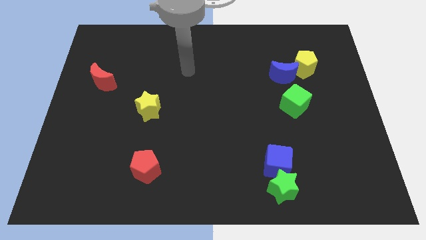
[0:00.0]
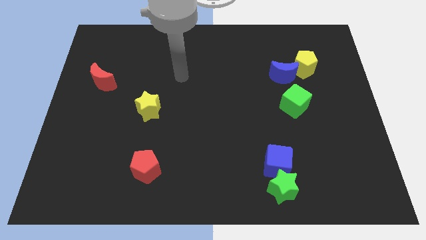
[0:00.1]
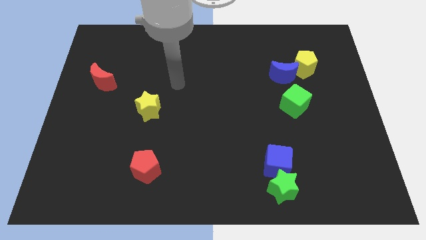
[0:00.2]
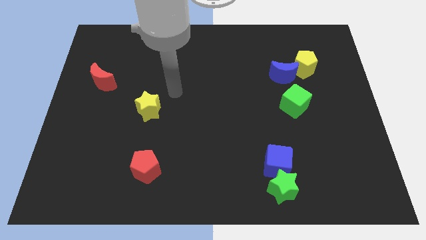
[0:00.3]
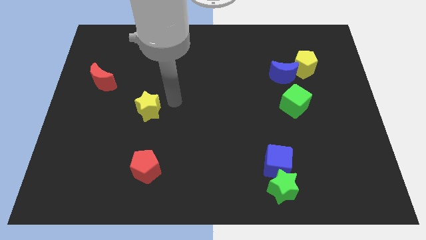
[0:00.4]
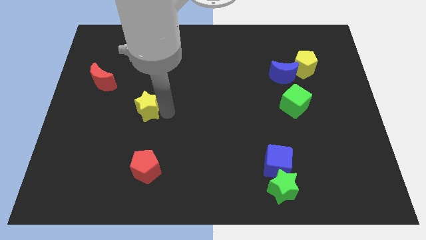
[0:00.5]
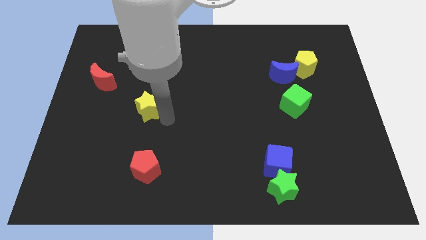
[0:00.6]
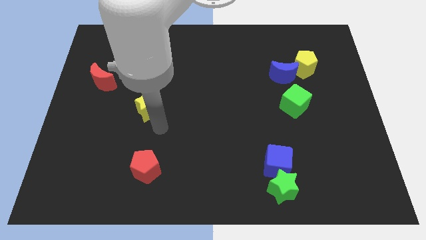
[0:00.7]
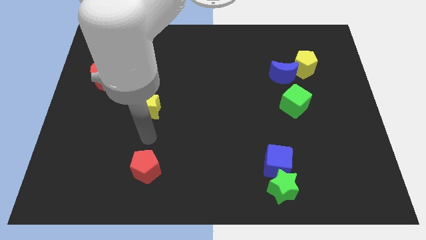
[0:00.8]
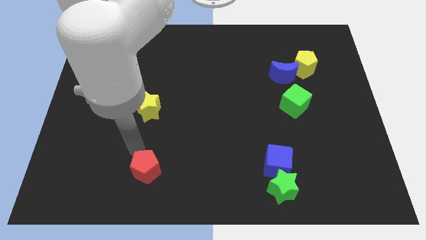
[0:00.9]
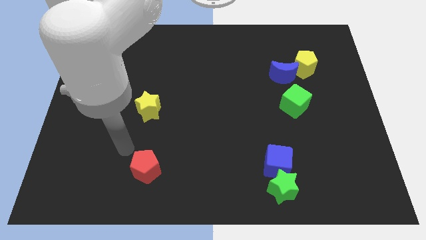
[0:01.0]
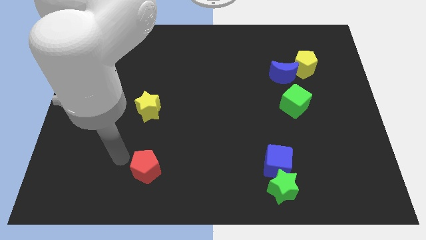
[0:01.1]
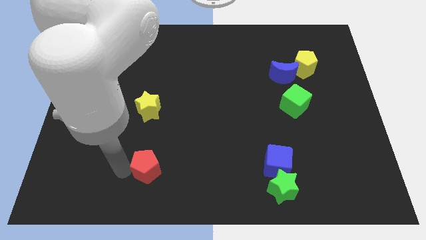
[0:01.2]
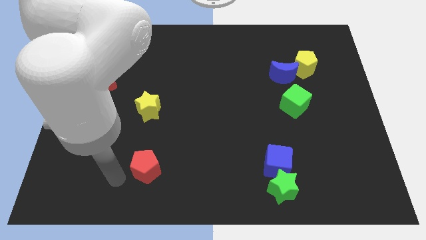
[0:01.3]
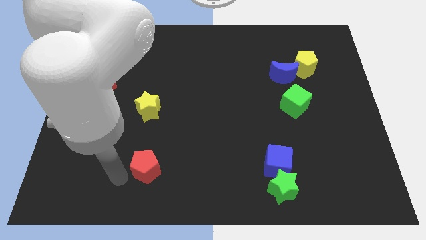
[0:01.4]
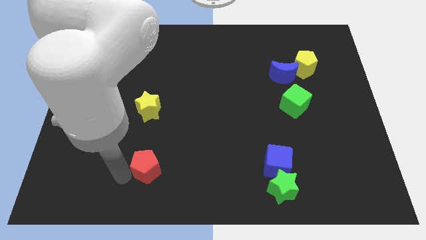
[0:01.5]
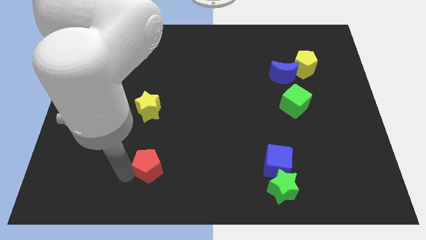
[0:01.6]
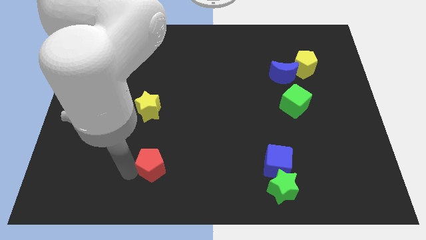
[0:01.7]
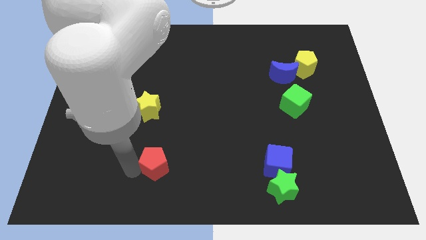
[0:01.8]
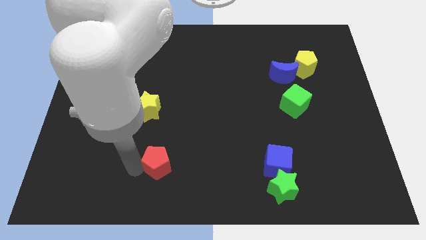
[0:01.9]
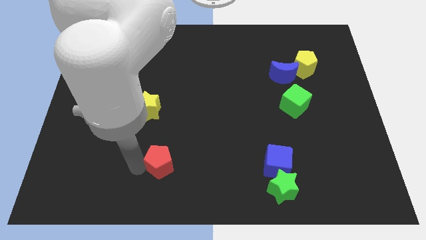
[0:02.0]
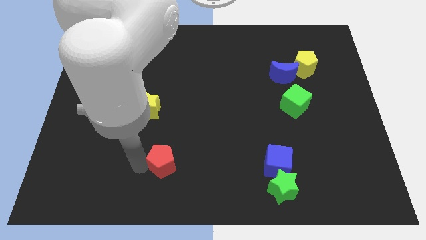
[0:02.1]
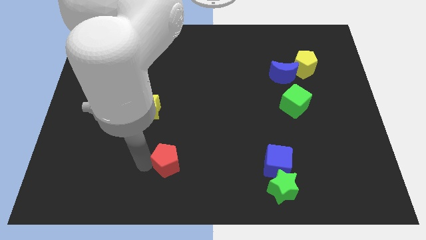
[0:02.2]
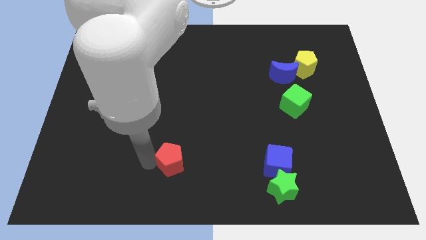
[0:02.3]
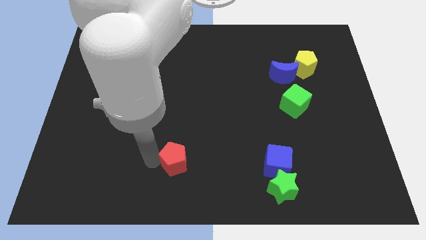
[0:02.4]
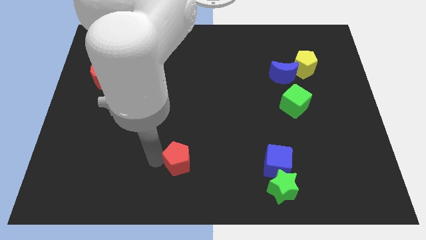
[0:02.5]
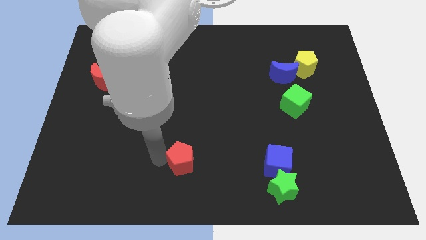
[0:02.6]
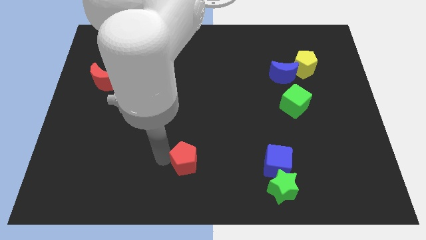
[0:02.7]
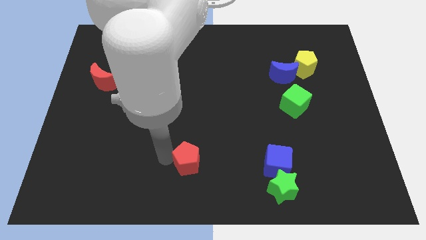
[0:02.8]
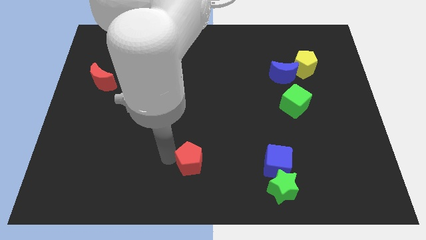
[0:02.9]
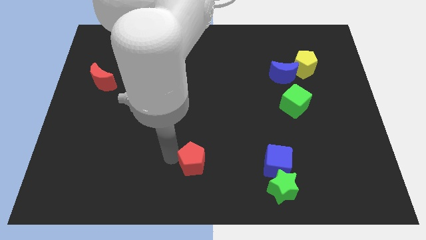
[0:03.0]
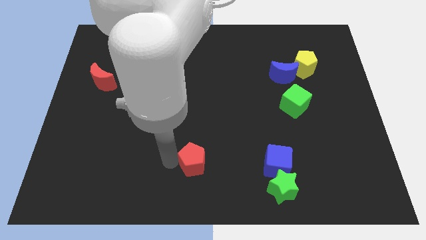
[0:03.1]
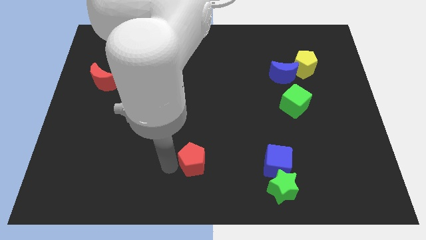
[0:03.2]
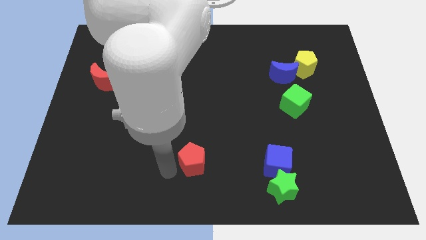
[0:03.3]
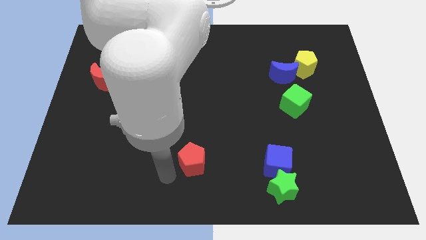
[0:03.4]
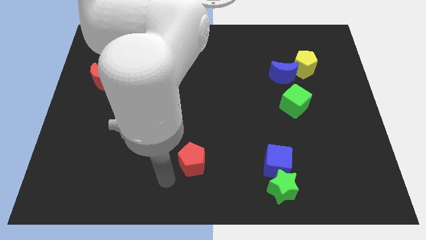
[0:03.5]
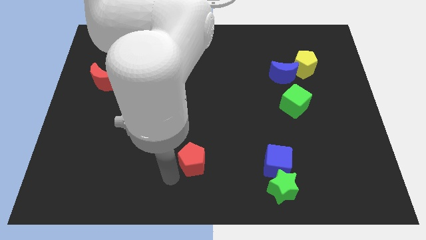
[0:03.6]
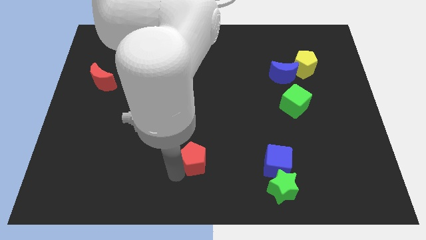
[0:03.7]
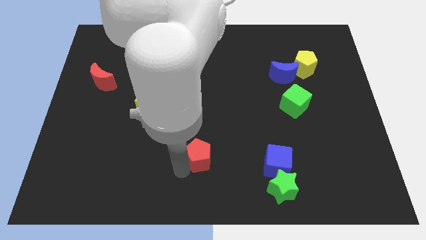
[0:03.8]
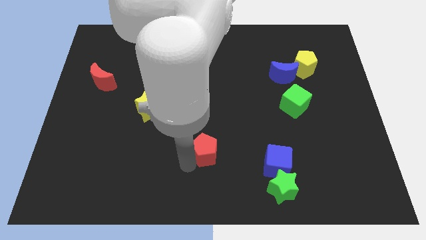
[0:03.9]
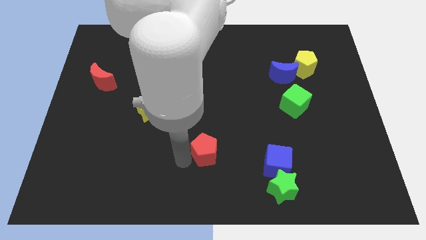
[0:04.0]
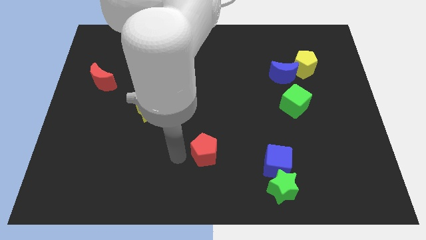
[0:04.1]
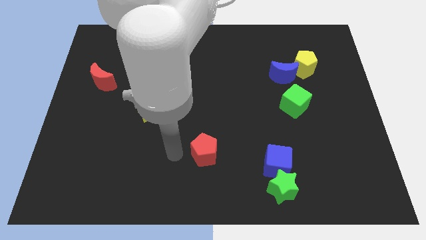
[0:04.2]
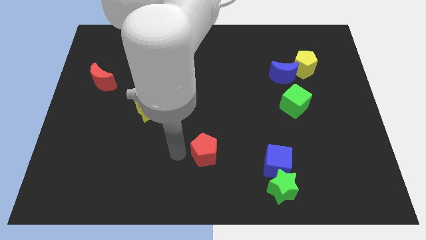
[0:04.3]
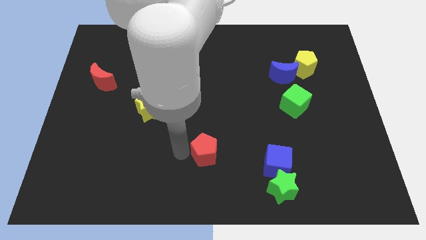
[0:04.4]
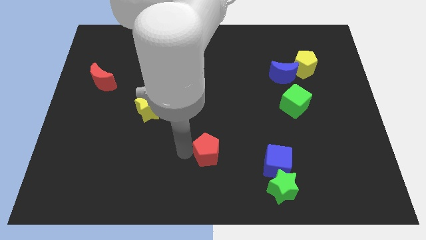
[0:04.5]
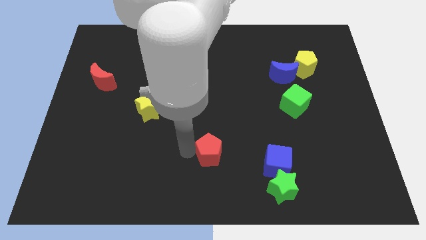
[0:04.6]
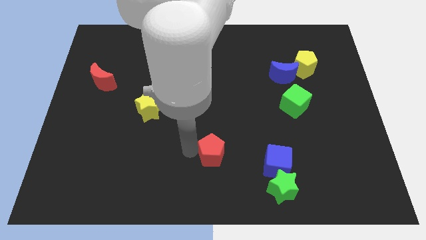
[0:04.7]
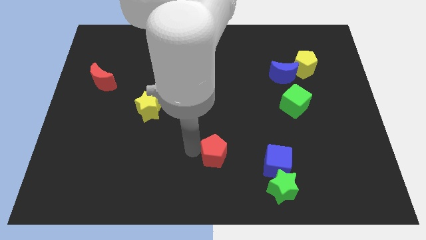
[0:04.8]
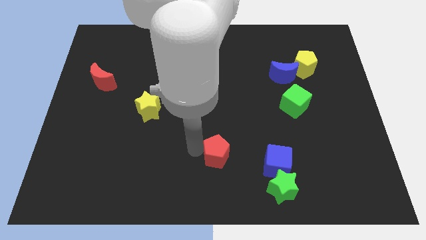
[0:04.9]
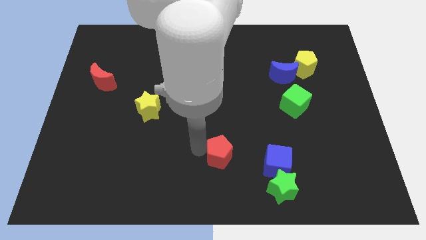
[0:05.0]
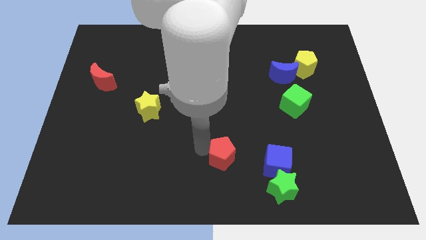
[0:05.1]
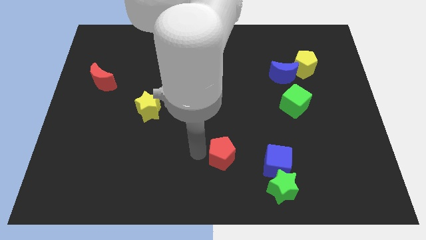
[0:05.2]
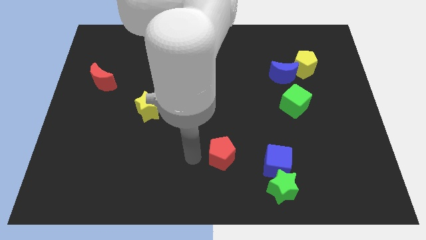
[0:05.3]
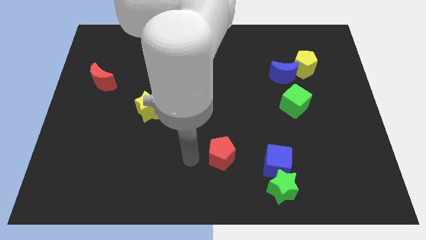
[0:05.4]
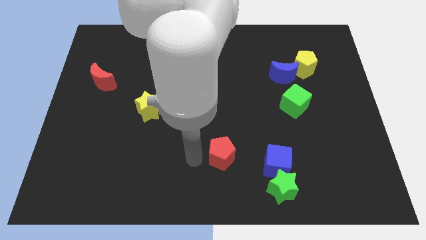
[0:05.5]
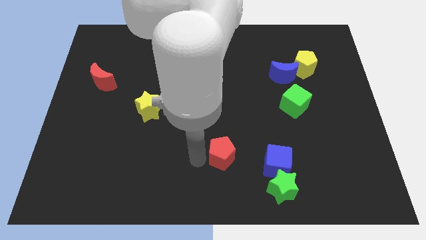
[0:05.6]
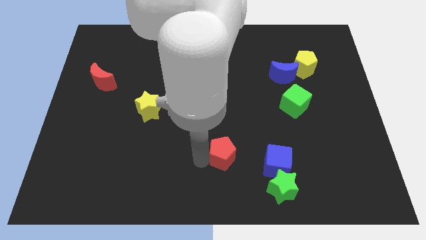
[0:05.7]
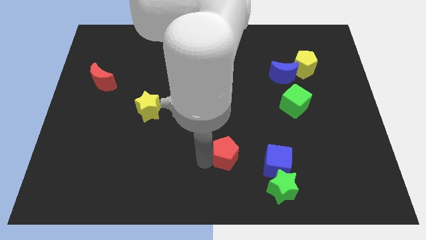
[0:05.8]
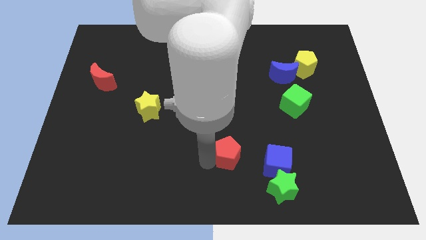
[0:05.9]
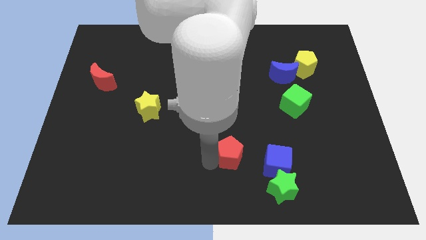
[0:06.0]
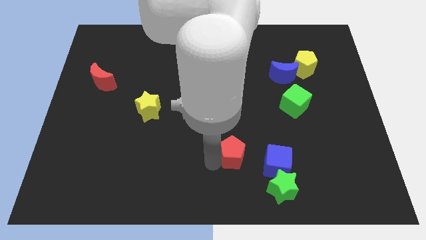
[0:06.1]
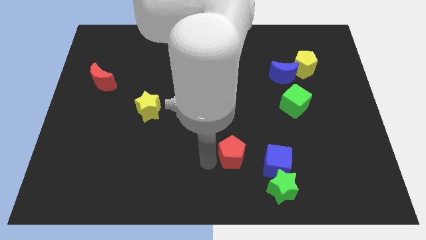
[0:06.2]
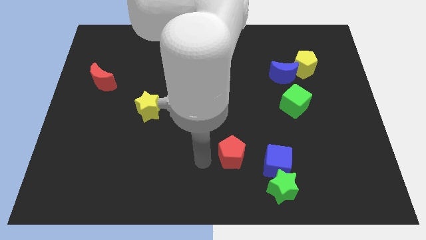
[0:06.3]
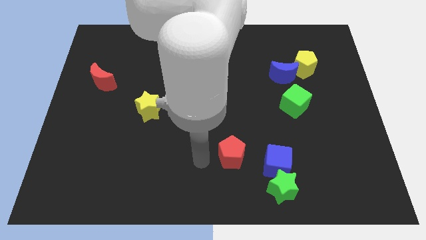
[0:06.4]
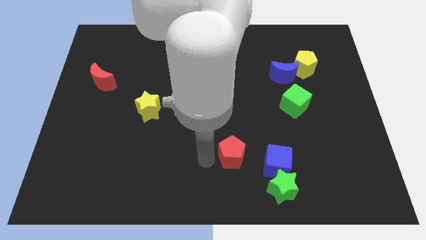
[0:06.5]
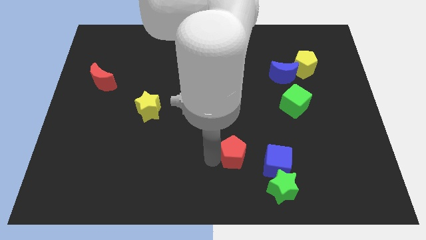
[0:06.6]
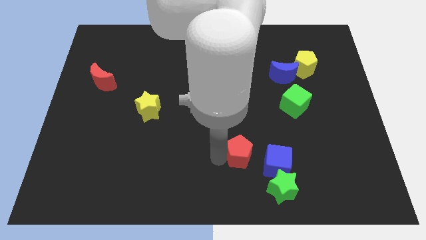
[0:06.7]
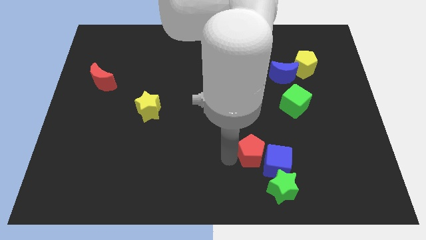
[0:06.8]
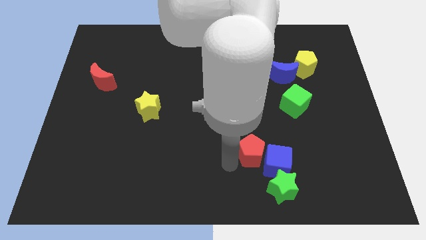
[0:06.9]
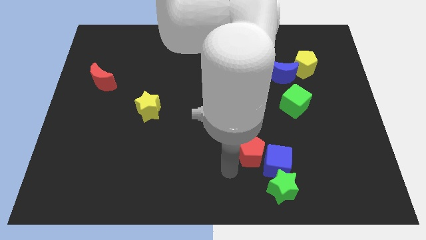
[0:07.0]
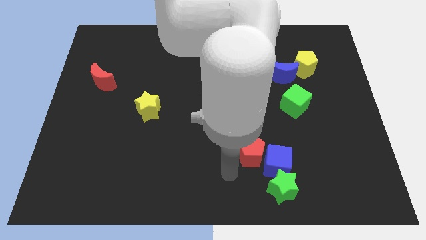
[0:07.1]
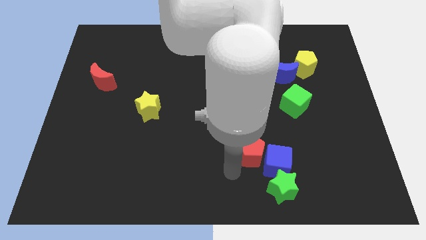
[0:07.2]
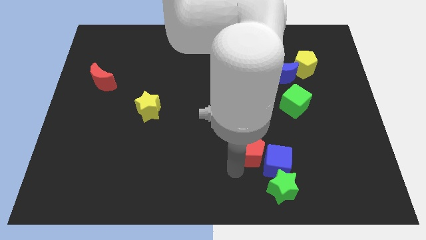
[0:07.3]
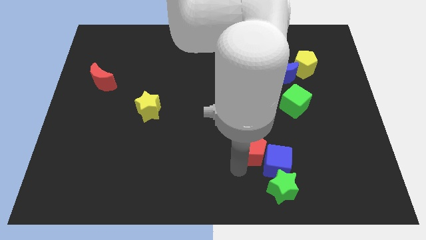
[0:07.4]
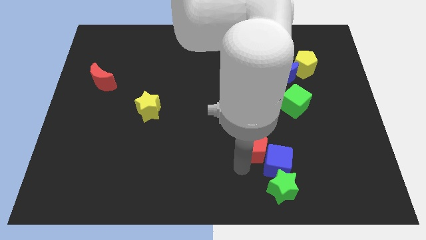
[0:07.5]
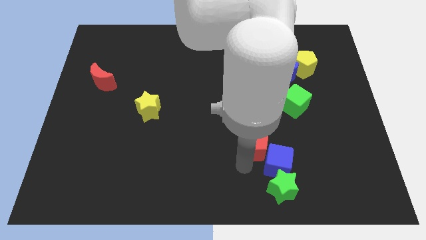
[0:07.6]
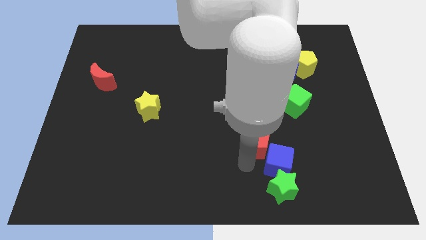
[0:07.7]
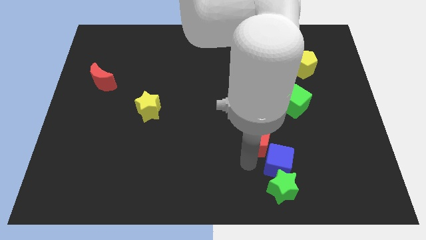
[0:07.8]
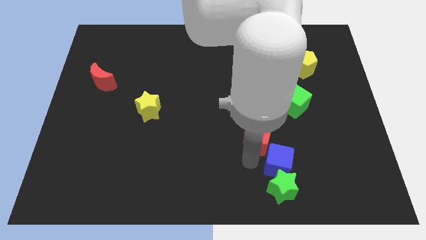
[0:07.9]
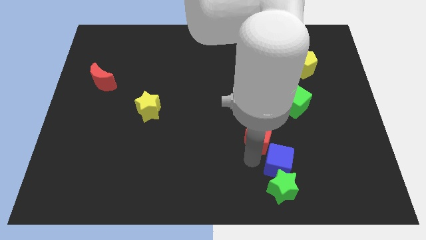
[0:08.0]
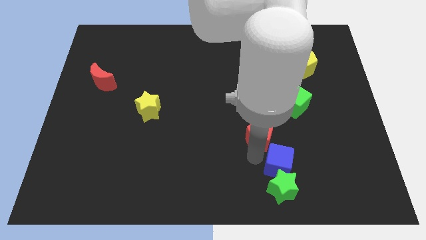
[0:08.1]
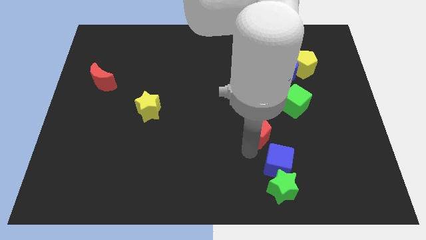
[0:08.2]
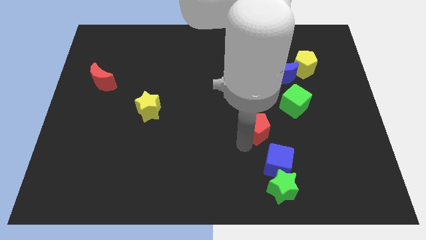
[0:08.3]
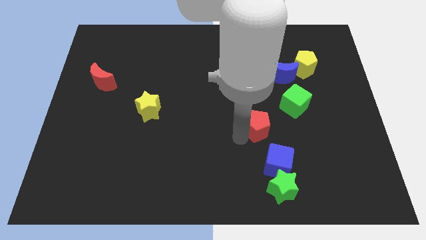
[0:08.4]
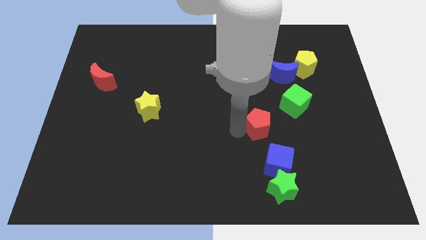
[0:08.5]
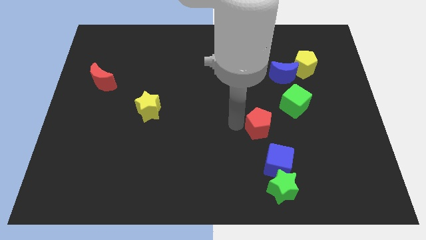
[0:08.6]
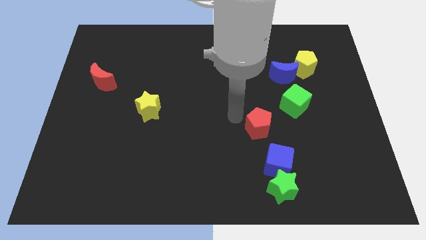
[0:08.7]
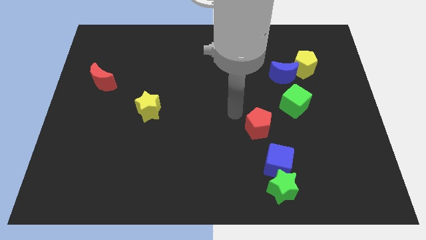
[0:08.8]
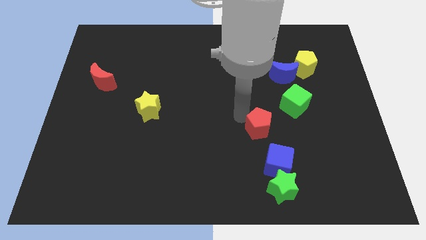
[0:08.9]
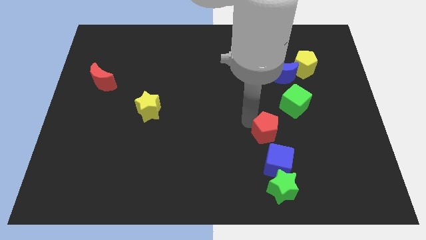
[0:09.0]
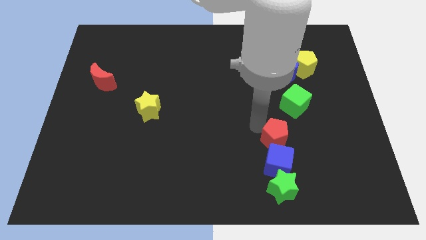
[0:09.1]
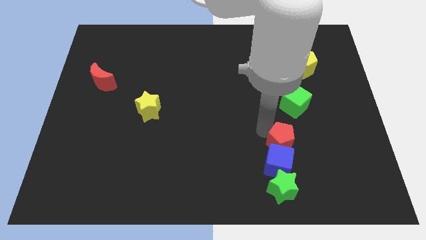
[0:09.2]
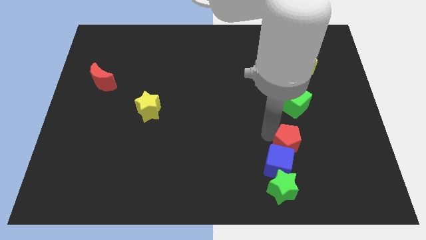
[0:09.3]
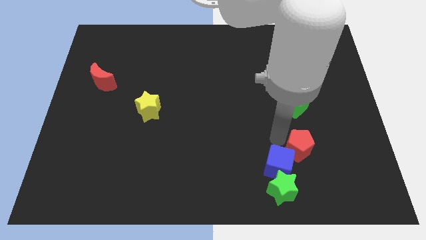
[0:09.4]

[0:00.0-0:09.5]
move the red pentagon just right of the blue cube
